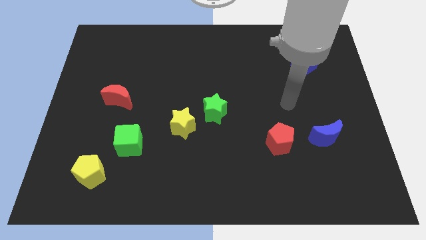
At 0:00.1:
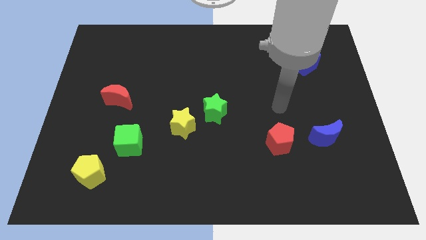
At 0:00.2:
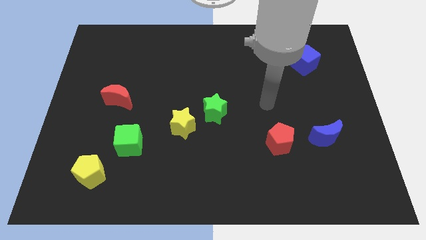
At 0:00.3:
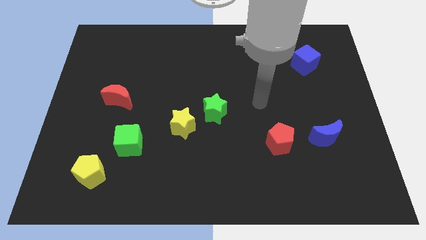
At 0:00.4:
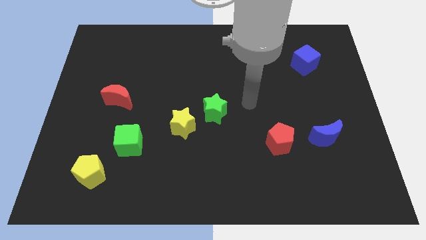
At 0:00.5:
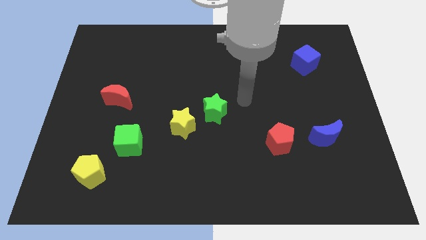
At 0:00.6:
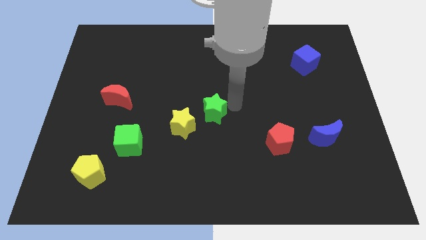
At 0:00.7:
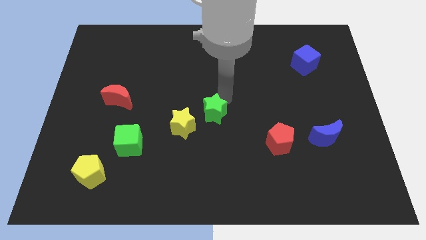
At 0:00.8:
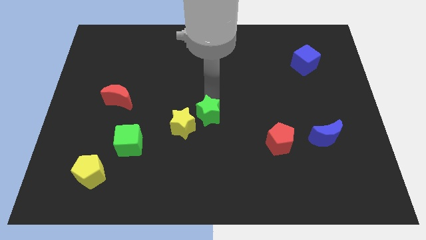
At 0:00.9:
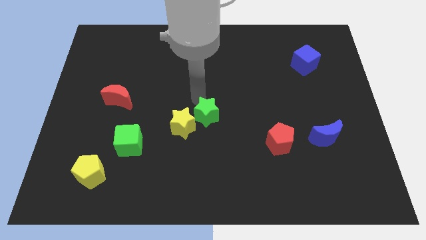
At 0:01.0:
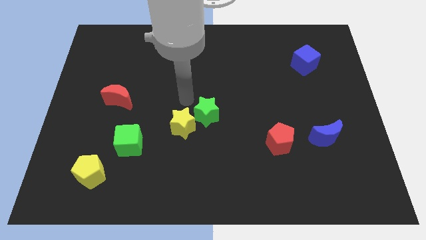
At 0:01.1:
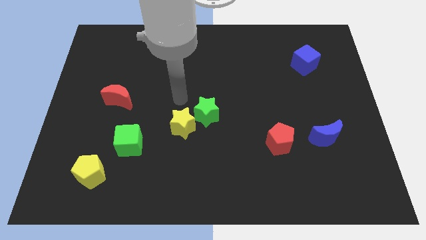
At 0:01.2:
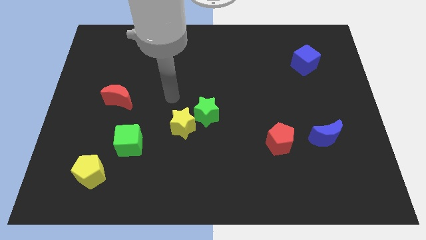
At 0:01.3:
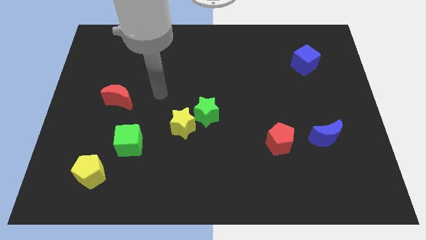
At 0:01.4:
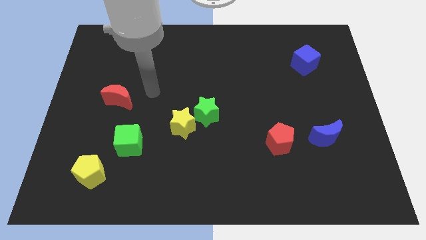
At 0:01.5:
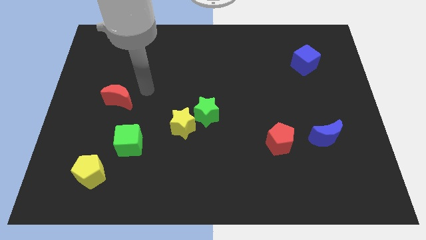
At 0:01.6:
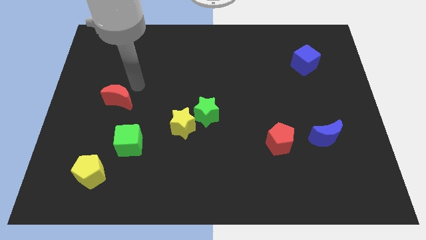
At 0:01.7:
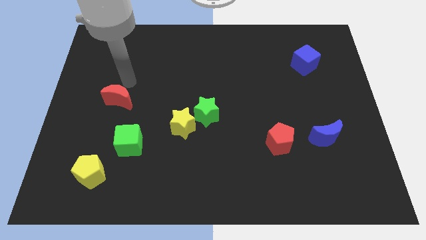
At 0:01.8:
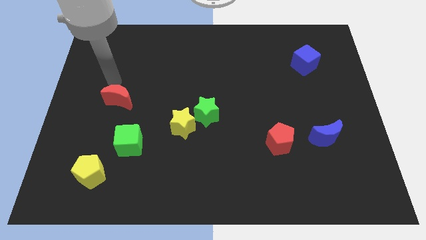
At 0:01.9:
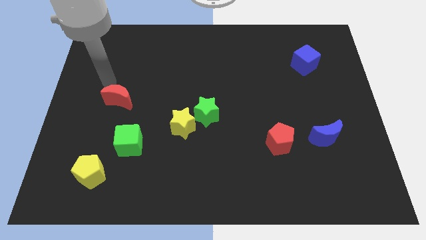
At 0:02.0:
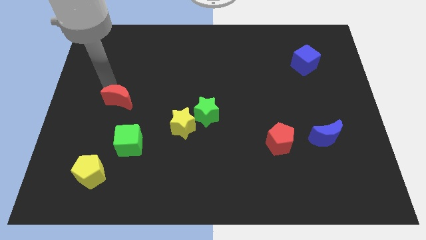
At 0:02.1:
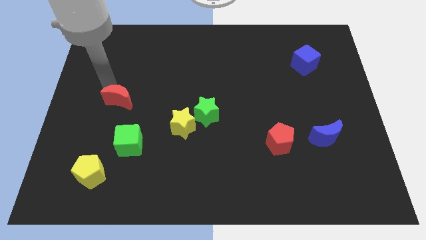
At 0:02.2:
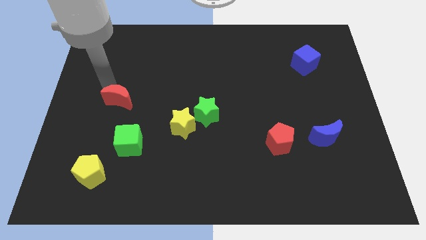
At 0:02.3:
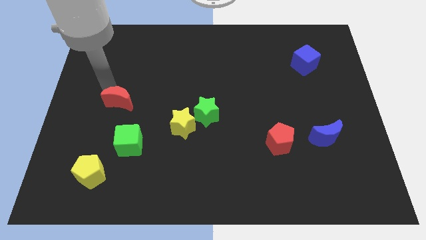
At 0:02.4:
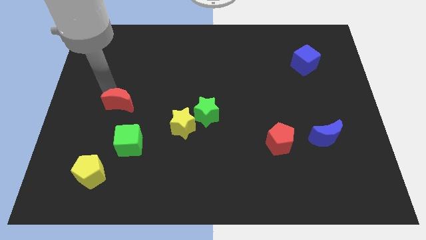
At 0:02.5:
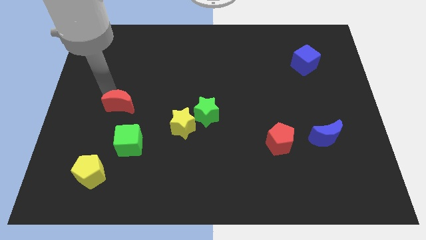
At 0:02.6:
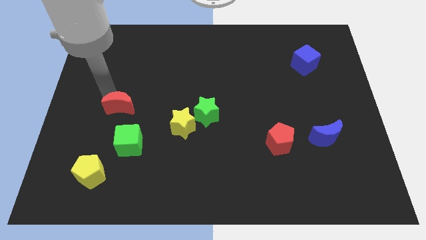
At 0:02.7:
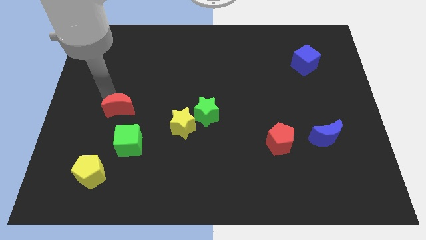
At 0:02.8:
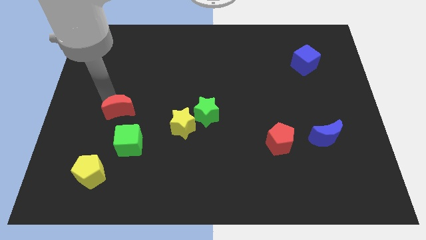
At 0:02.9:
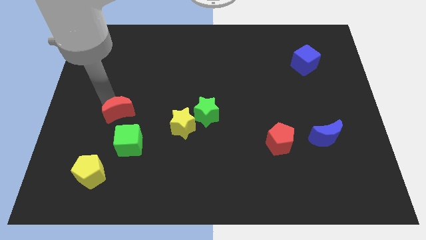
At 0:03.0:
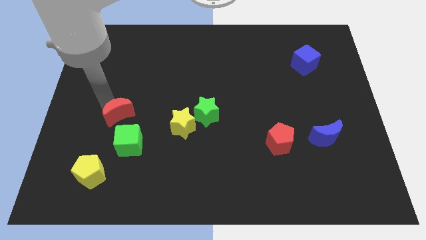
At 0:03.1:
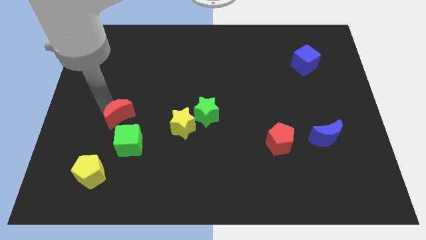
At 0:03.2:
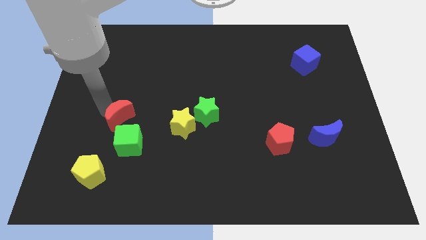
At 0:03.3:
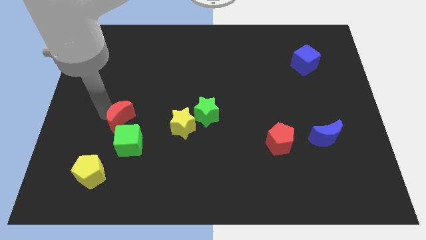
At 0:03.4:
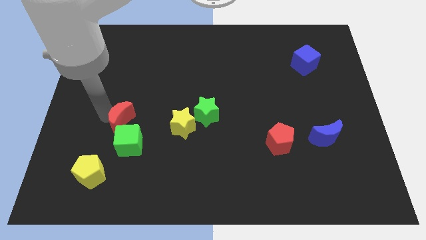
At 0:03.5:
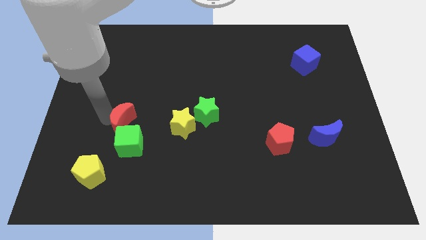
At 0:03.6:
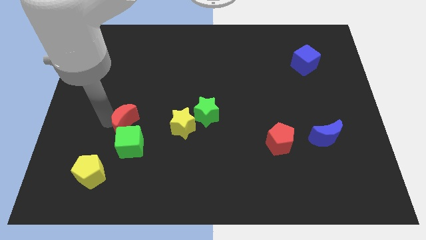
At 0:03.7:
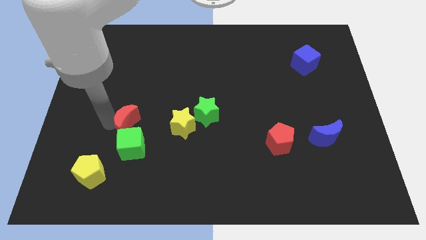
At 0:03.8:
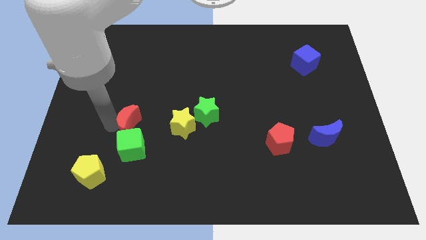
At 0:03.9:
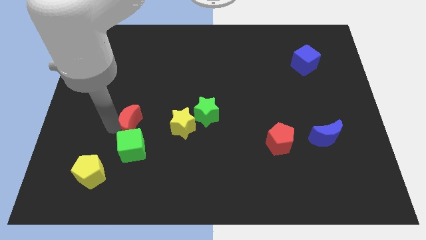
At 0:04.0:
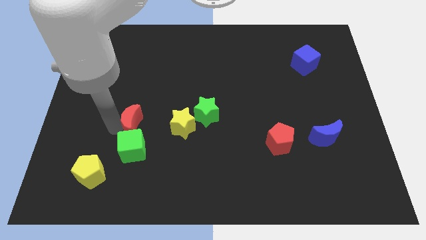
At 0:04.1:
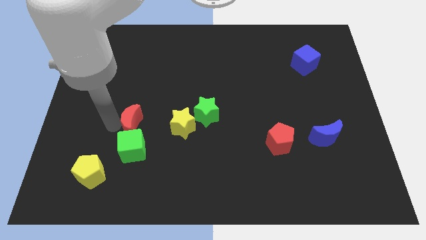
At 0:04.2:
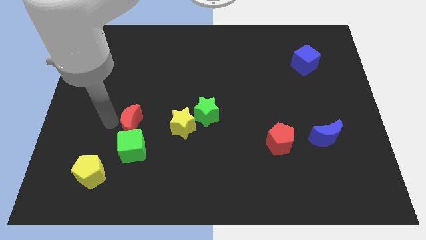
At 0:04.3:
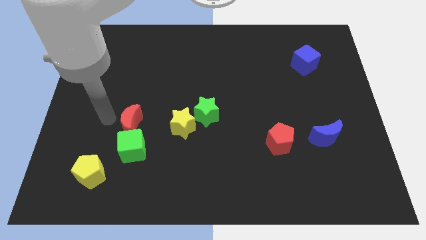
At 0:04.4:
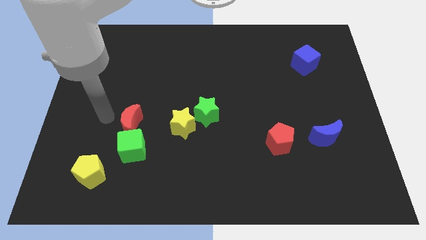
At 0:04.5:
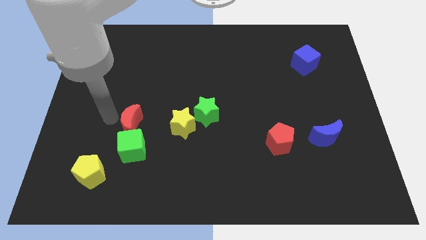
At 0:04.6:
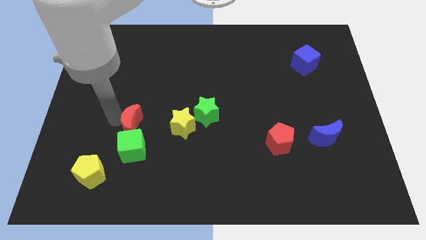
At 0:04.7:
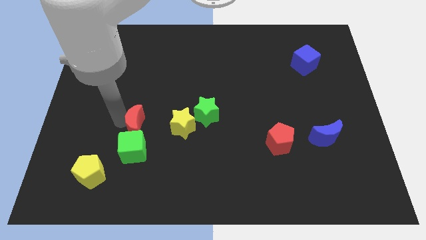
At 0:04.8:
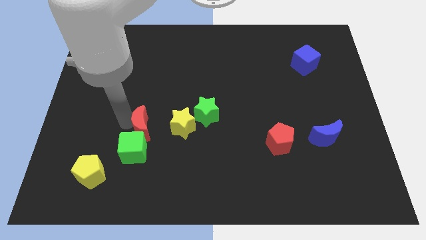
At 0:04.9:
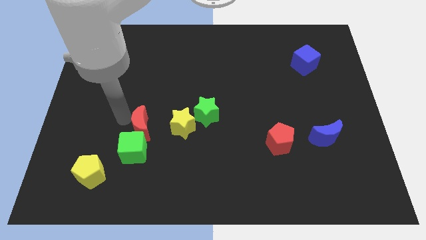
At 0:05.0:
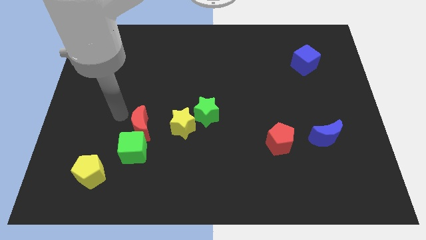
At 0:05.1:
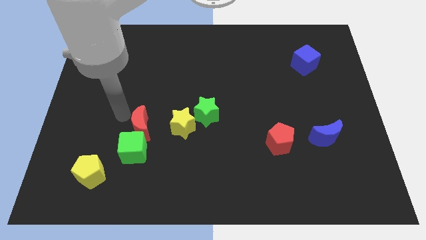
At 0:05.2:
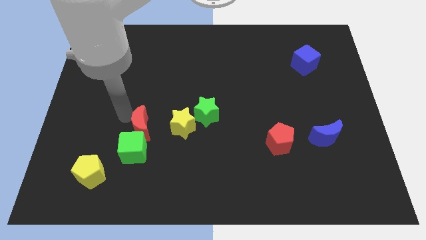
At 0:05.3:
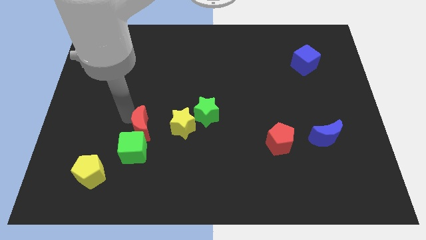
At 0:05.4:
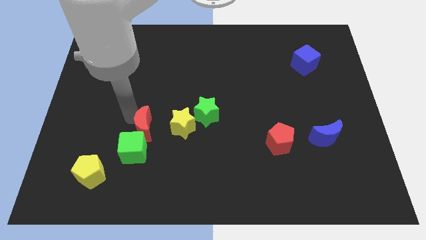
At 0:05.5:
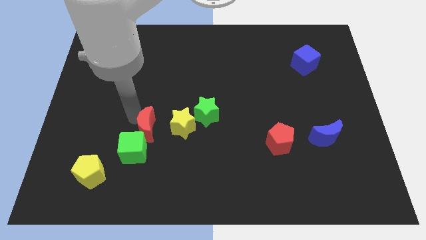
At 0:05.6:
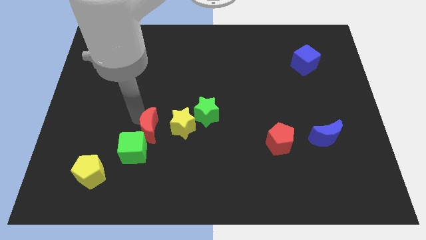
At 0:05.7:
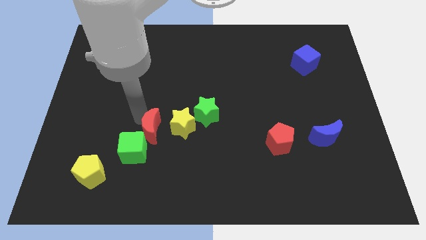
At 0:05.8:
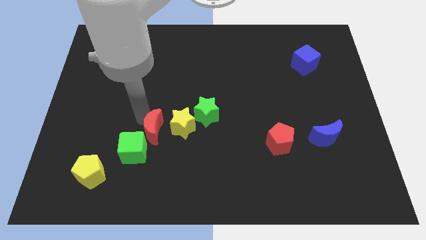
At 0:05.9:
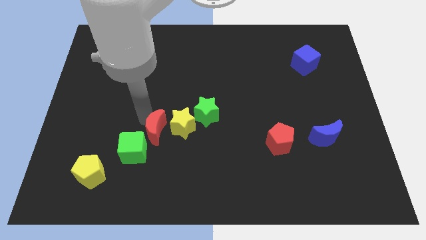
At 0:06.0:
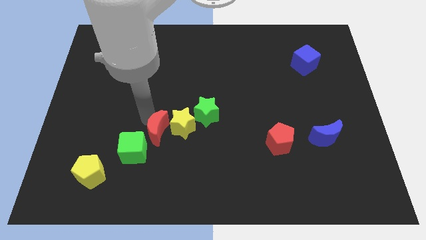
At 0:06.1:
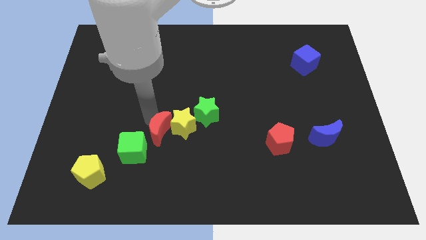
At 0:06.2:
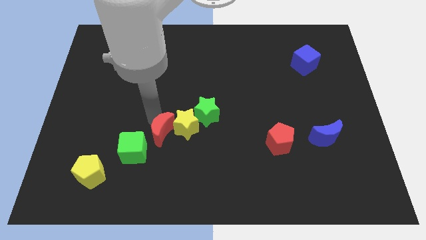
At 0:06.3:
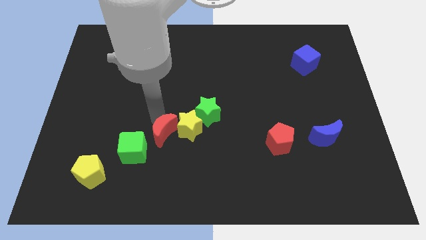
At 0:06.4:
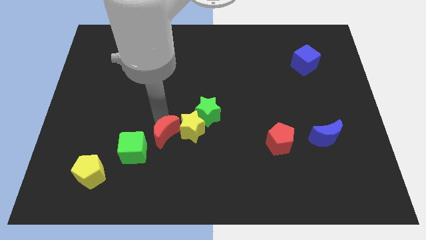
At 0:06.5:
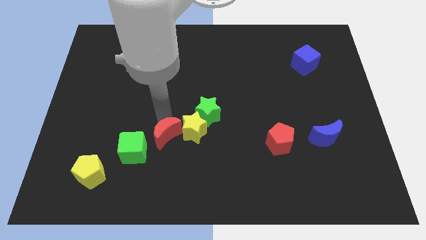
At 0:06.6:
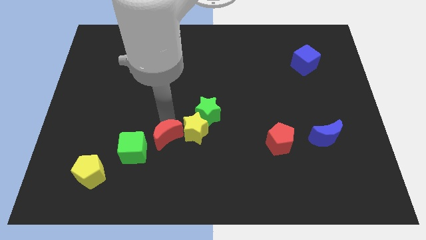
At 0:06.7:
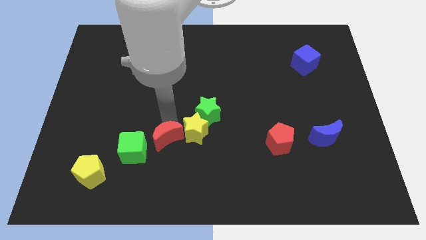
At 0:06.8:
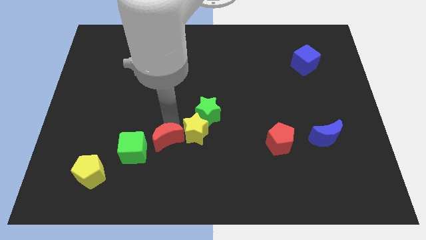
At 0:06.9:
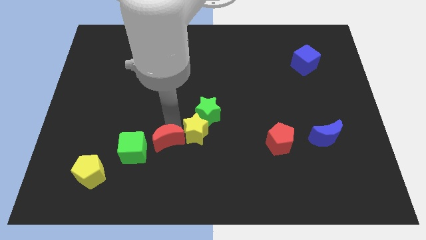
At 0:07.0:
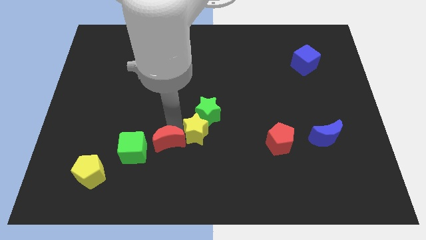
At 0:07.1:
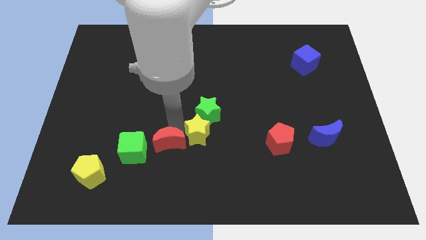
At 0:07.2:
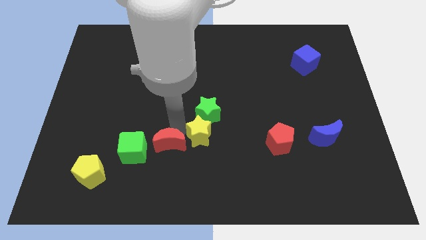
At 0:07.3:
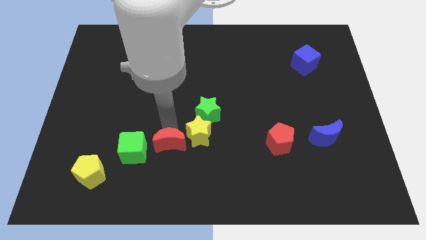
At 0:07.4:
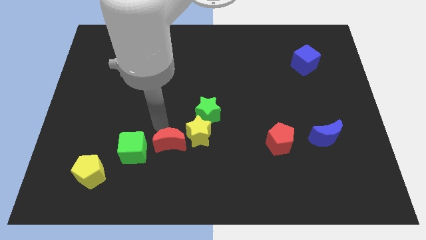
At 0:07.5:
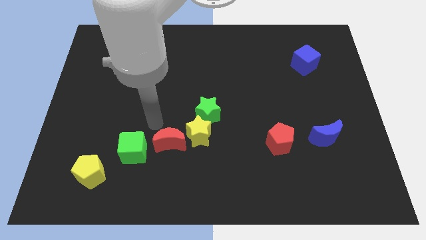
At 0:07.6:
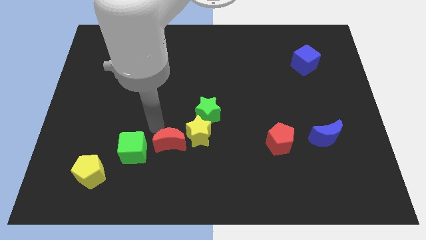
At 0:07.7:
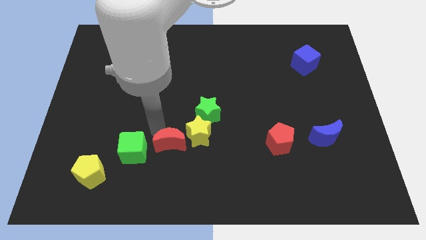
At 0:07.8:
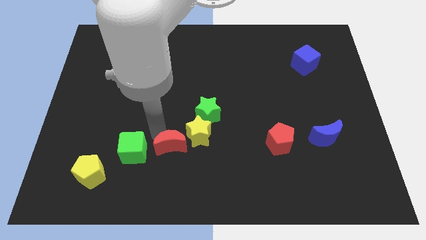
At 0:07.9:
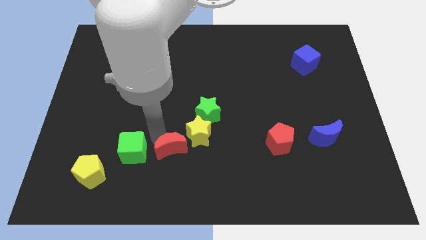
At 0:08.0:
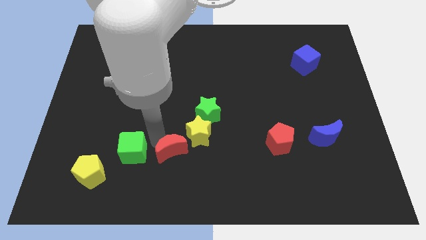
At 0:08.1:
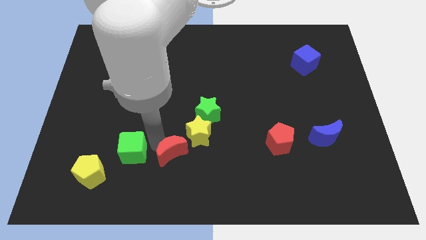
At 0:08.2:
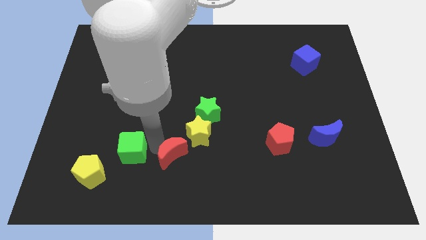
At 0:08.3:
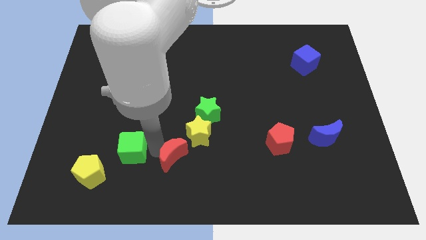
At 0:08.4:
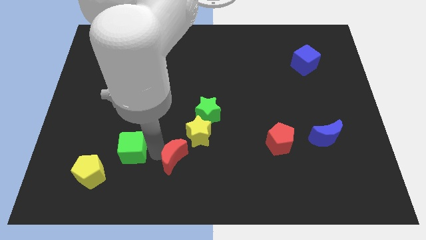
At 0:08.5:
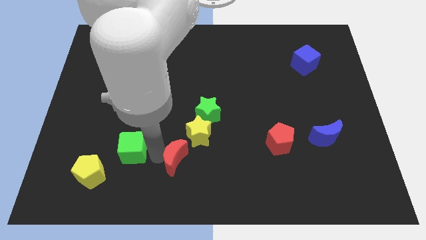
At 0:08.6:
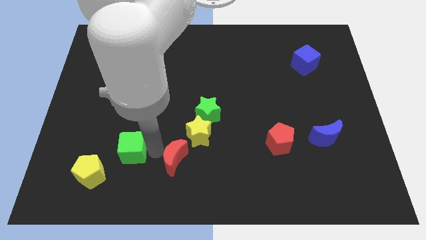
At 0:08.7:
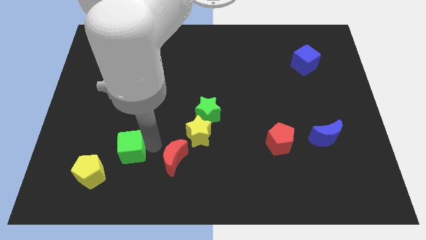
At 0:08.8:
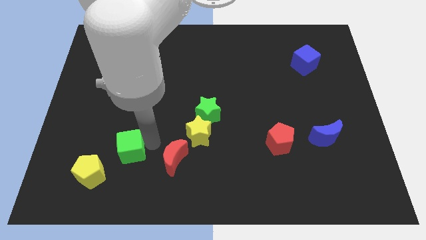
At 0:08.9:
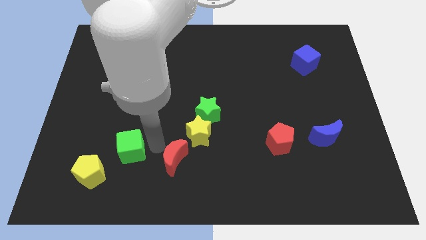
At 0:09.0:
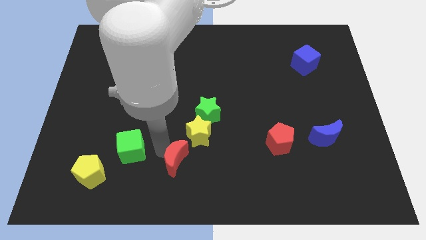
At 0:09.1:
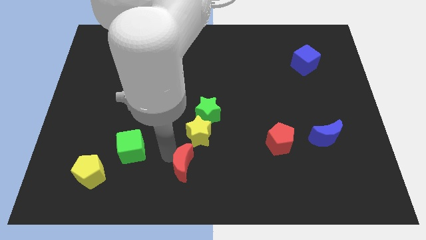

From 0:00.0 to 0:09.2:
slide the red moon to the bottom of the yellow star
